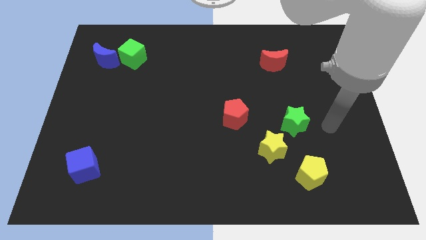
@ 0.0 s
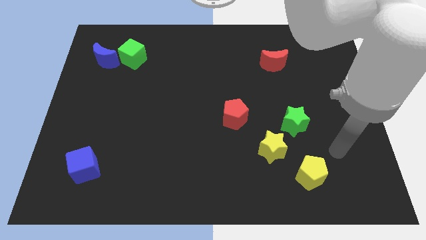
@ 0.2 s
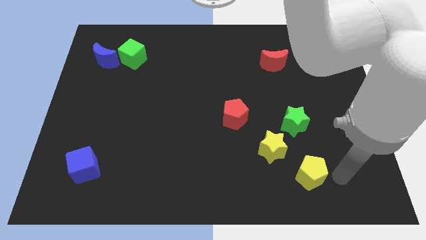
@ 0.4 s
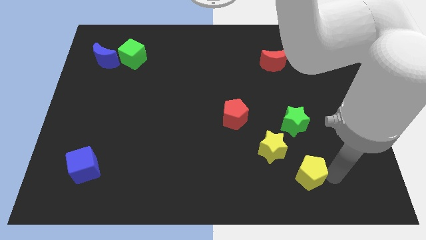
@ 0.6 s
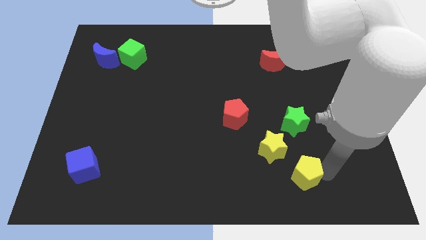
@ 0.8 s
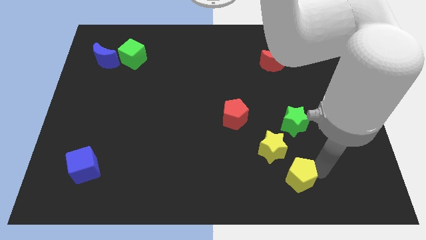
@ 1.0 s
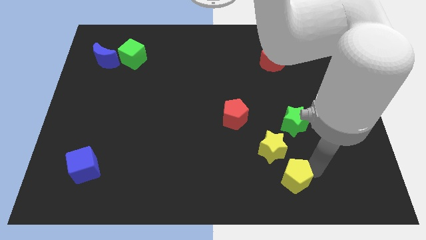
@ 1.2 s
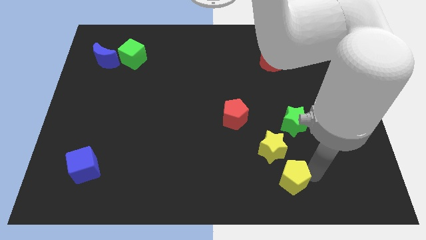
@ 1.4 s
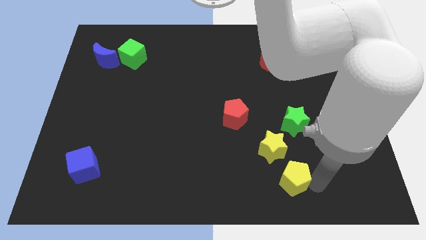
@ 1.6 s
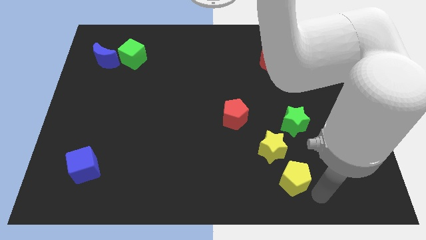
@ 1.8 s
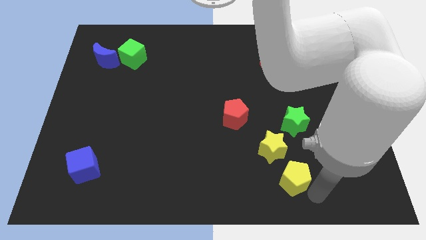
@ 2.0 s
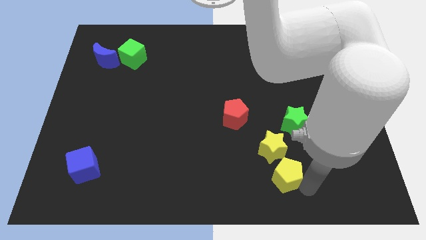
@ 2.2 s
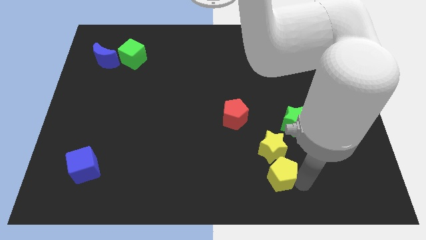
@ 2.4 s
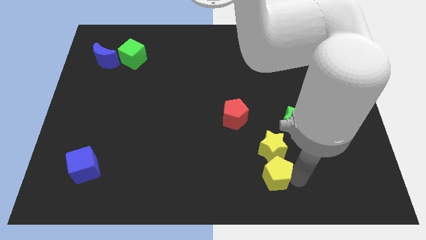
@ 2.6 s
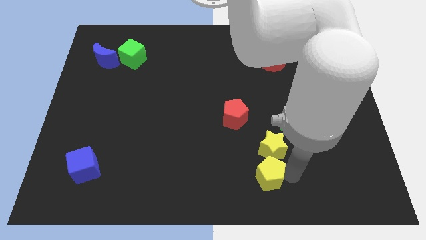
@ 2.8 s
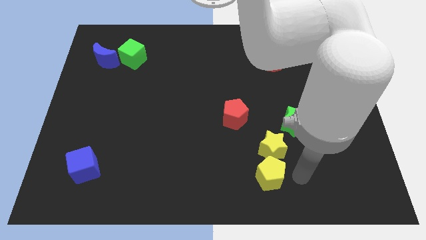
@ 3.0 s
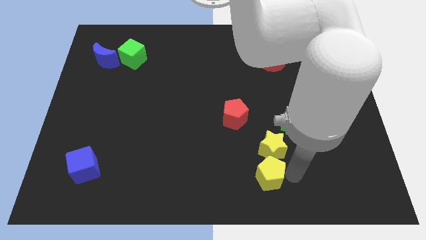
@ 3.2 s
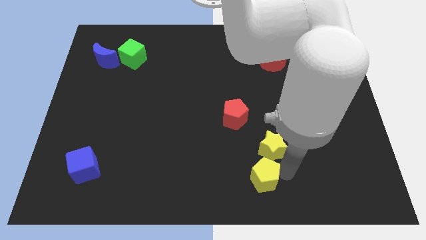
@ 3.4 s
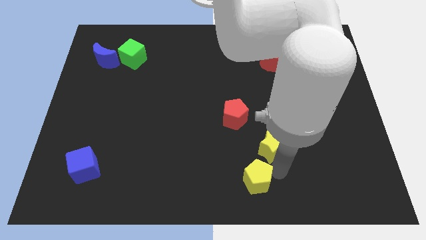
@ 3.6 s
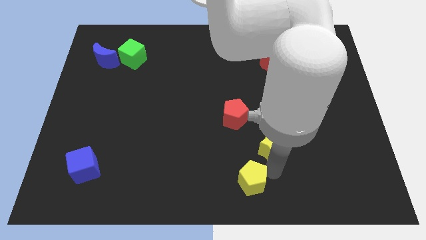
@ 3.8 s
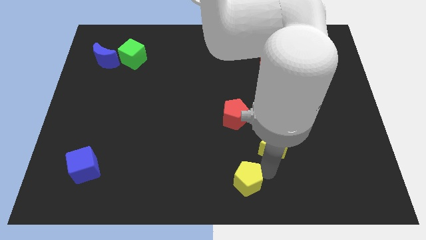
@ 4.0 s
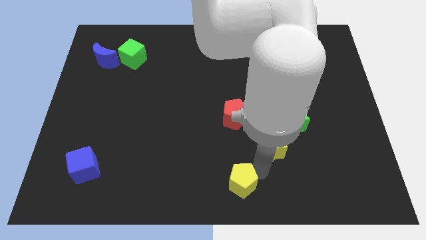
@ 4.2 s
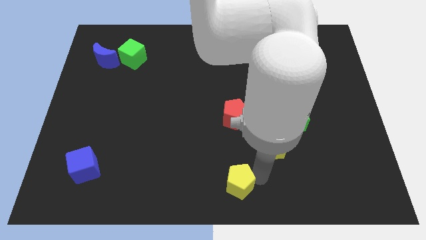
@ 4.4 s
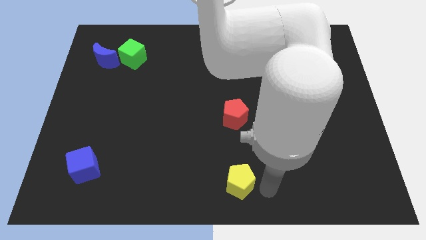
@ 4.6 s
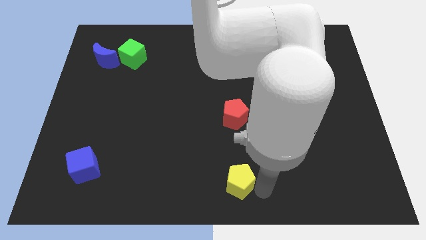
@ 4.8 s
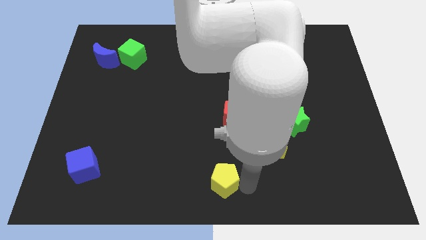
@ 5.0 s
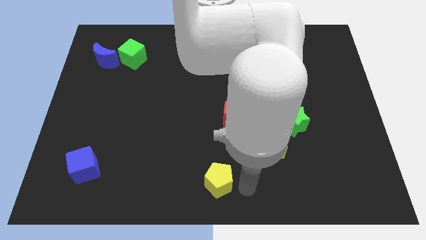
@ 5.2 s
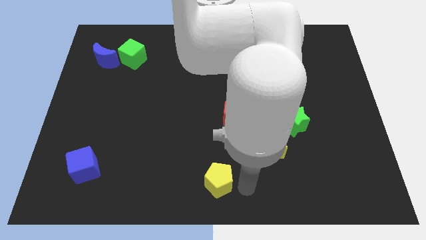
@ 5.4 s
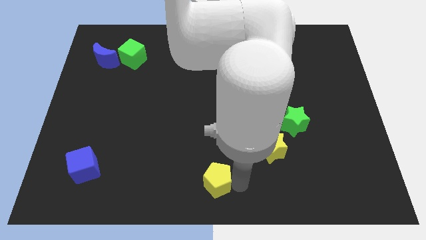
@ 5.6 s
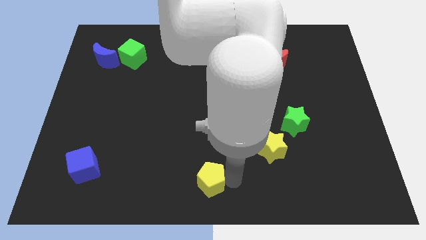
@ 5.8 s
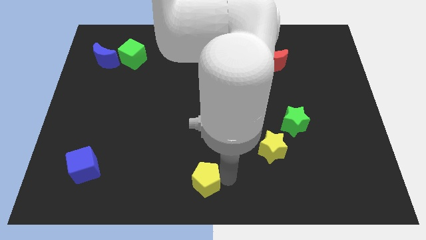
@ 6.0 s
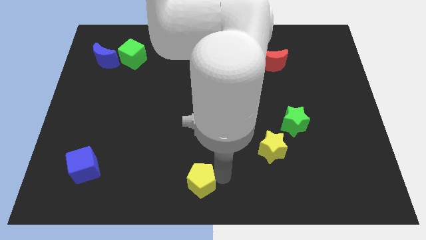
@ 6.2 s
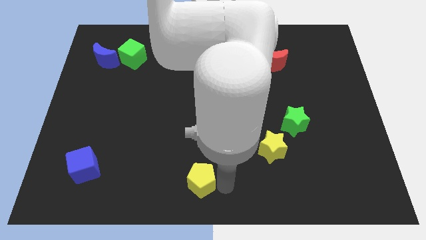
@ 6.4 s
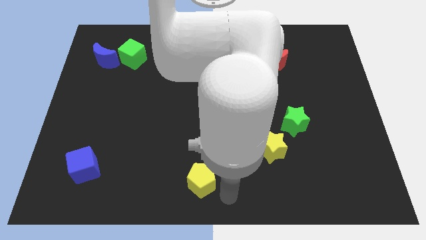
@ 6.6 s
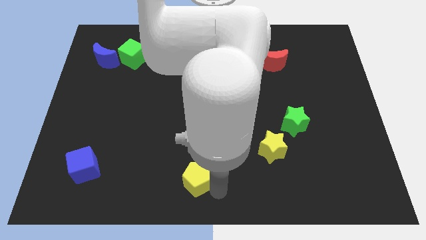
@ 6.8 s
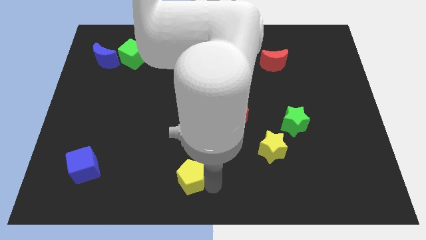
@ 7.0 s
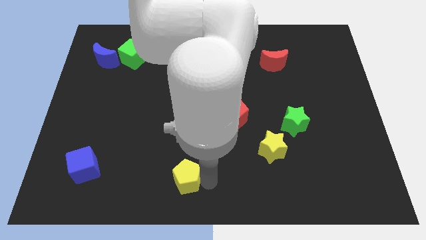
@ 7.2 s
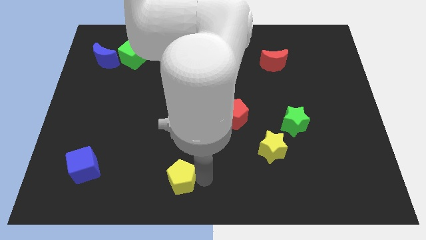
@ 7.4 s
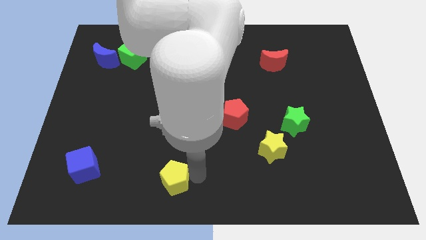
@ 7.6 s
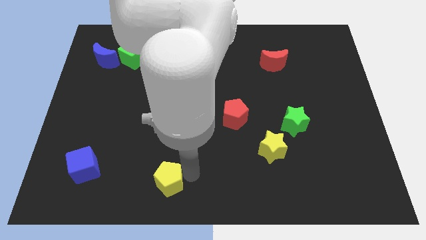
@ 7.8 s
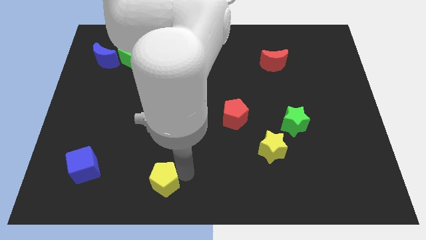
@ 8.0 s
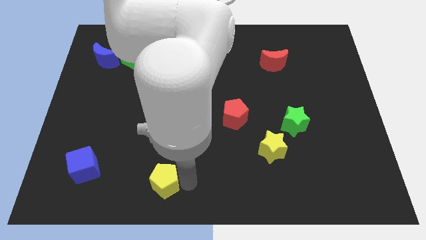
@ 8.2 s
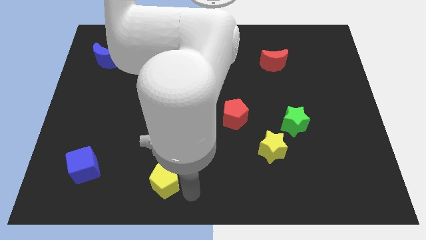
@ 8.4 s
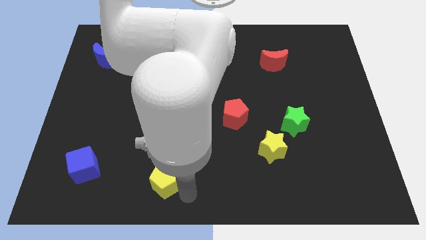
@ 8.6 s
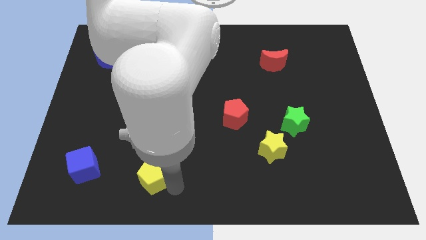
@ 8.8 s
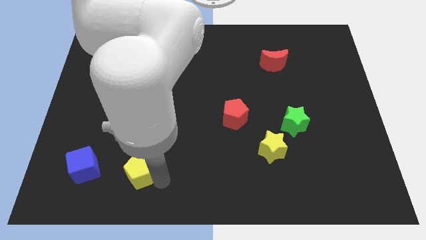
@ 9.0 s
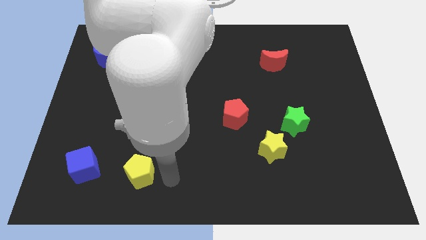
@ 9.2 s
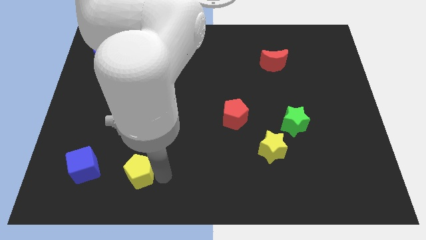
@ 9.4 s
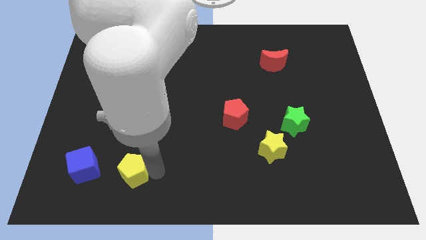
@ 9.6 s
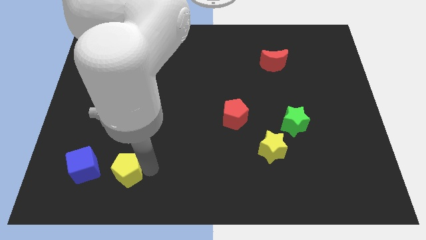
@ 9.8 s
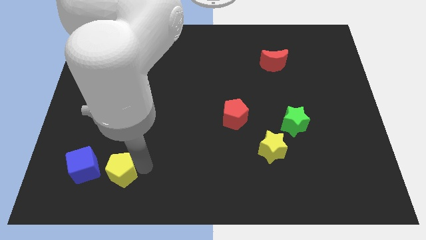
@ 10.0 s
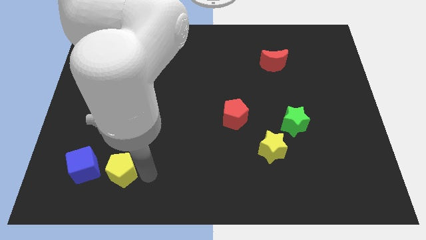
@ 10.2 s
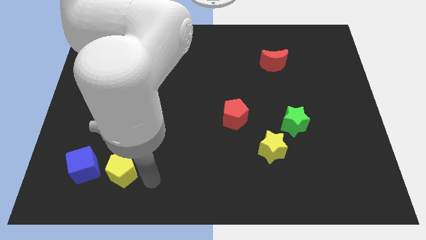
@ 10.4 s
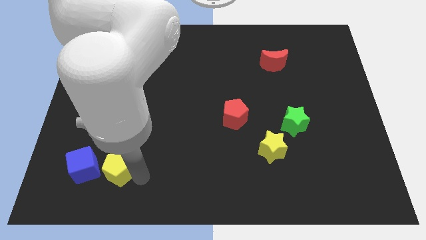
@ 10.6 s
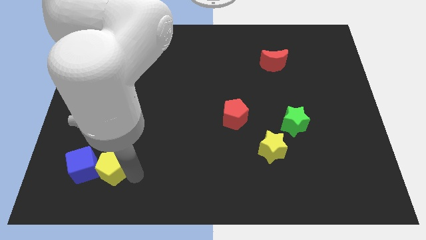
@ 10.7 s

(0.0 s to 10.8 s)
push the yellow pentagon towards the blue cube

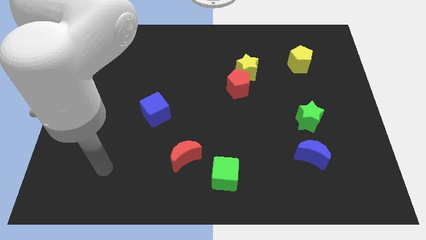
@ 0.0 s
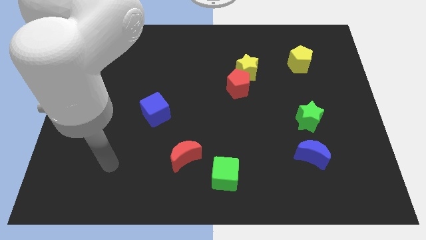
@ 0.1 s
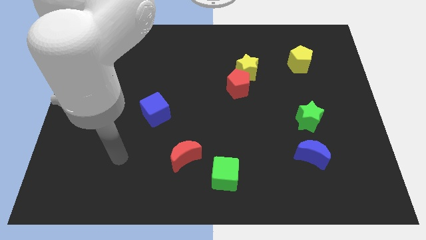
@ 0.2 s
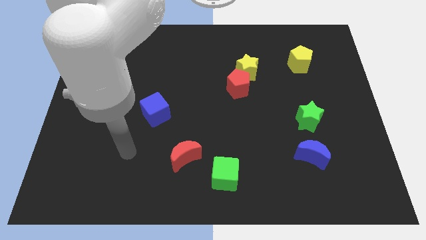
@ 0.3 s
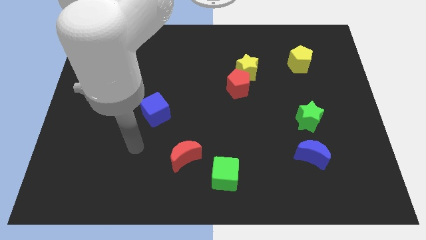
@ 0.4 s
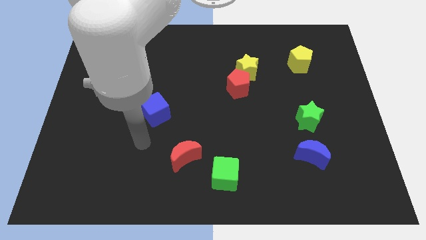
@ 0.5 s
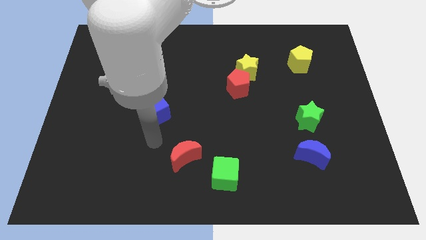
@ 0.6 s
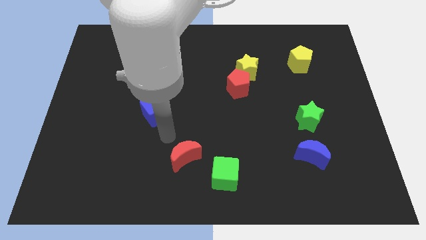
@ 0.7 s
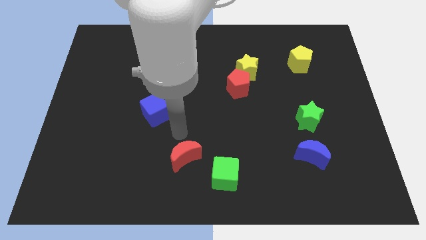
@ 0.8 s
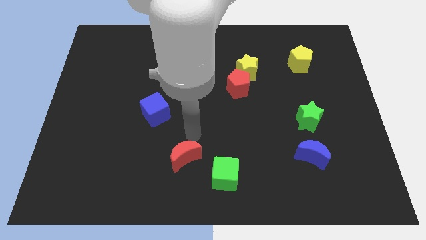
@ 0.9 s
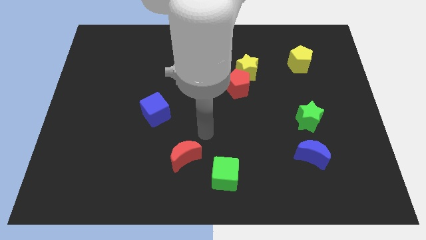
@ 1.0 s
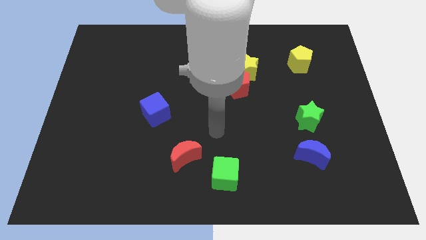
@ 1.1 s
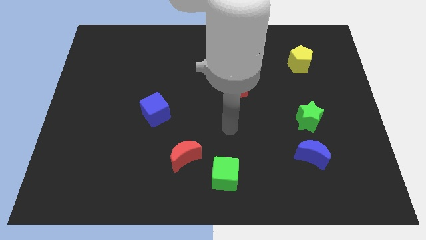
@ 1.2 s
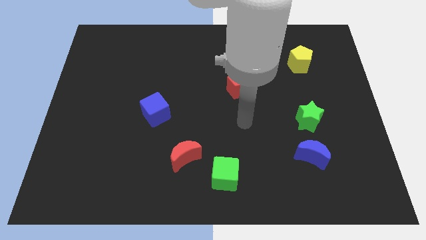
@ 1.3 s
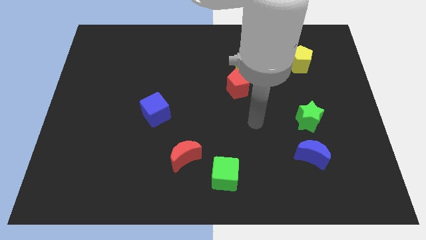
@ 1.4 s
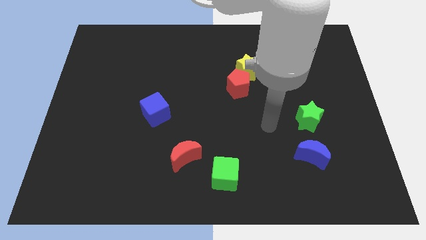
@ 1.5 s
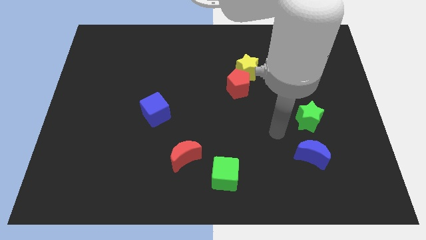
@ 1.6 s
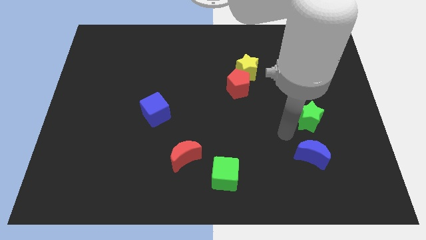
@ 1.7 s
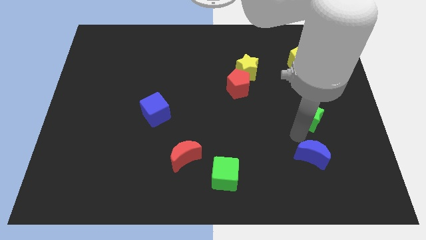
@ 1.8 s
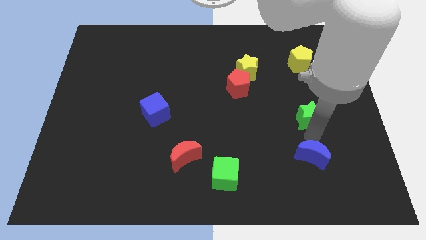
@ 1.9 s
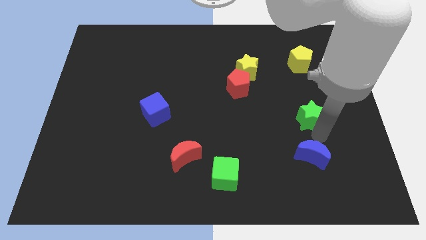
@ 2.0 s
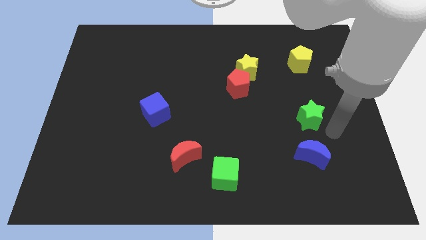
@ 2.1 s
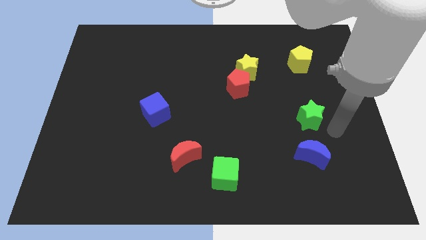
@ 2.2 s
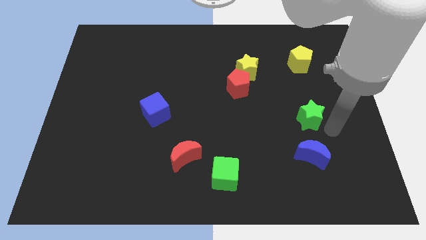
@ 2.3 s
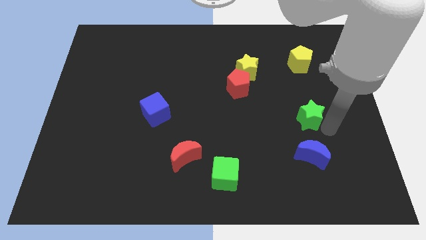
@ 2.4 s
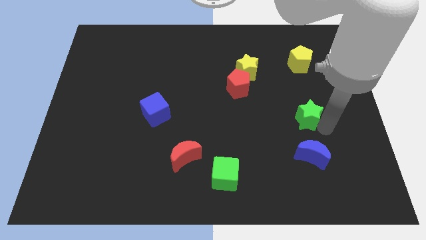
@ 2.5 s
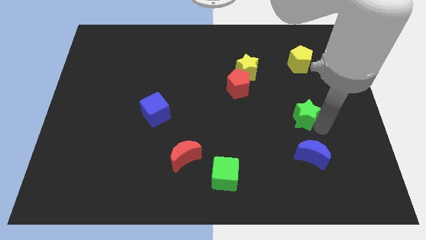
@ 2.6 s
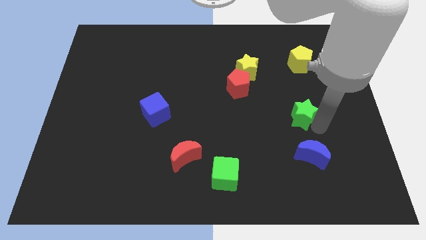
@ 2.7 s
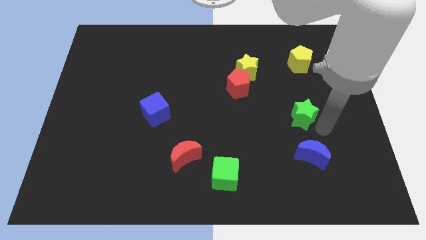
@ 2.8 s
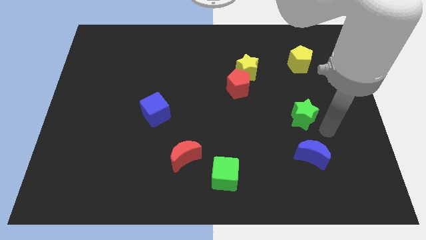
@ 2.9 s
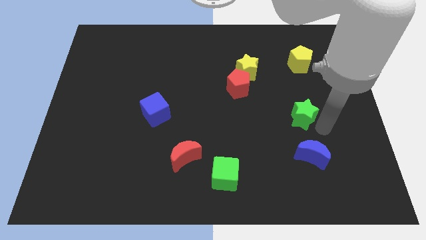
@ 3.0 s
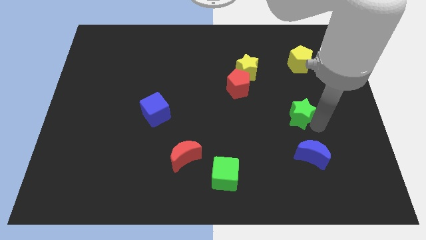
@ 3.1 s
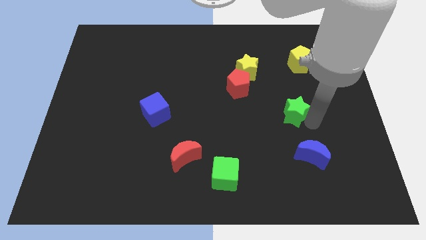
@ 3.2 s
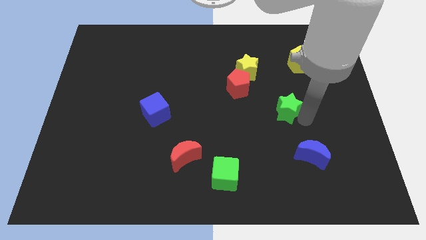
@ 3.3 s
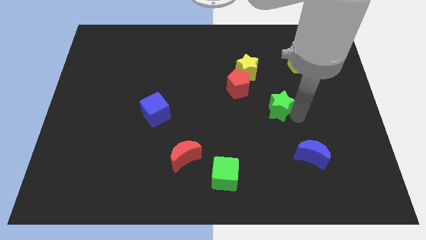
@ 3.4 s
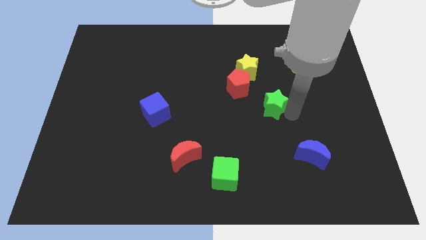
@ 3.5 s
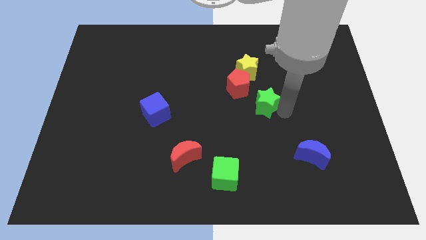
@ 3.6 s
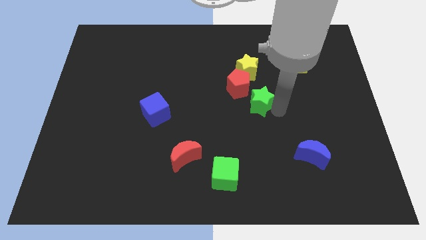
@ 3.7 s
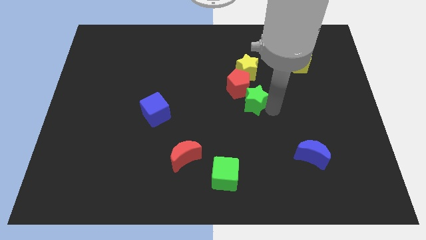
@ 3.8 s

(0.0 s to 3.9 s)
put the green star to the red pentagon
